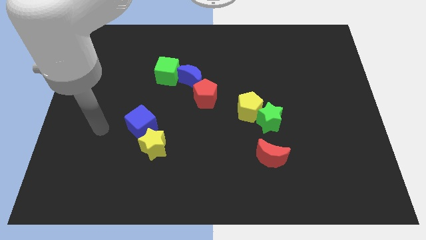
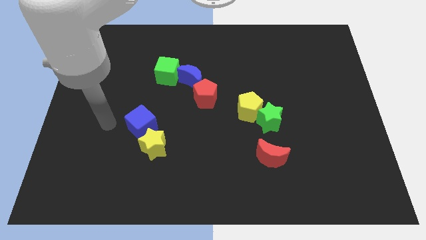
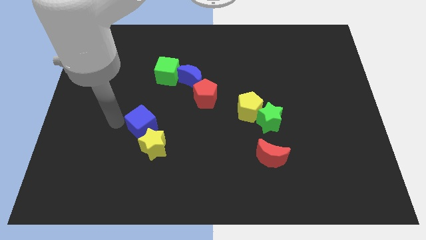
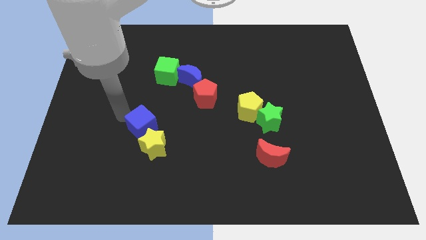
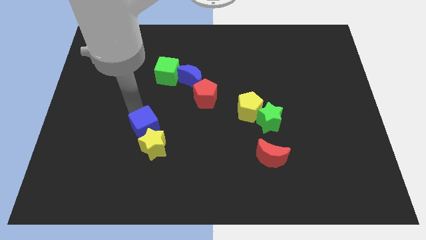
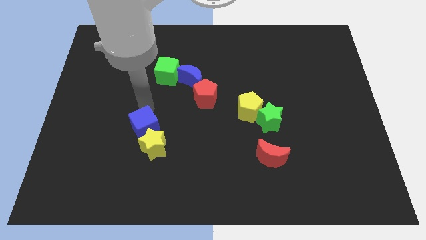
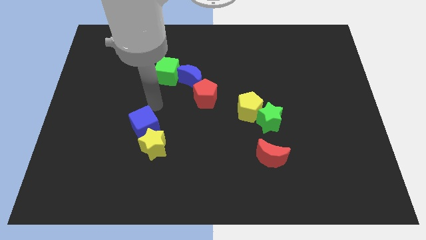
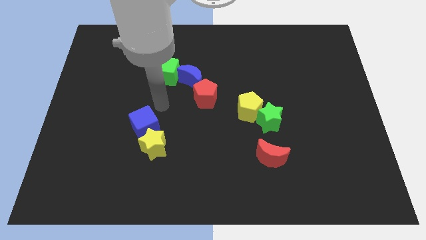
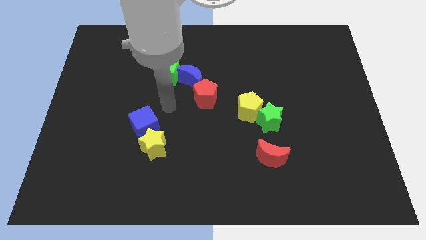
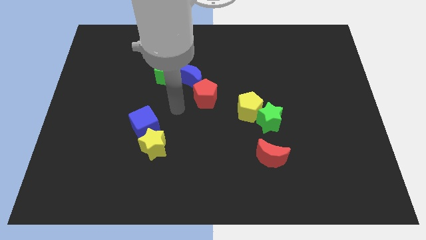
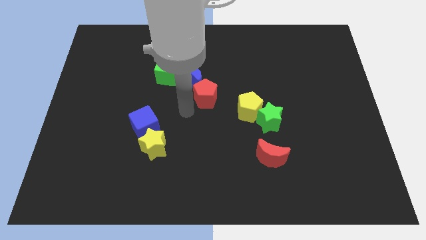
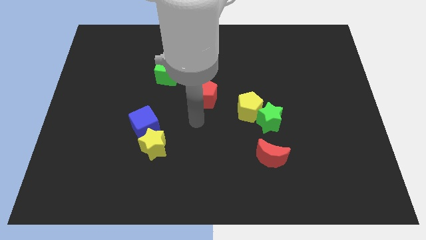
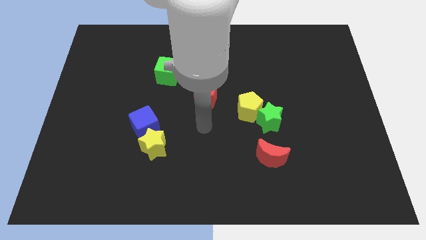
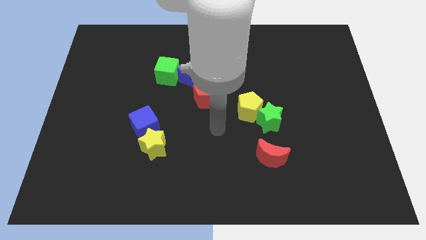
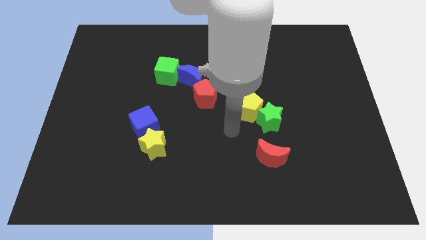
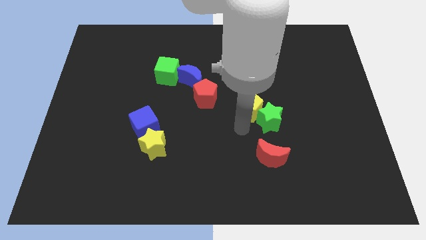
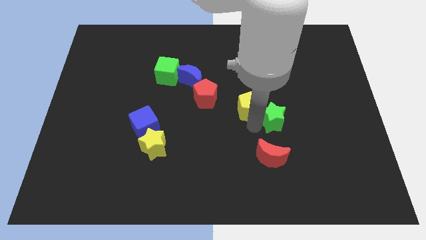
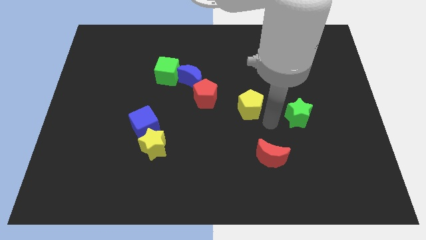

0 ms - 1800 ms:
pull the yellow pentagon apart from the green star

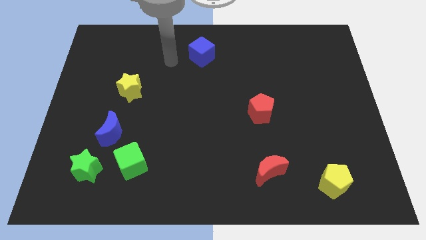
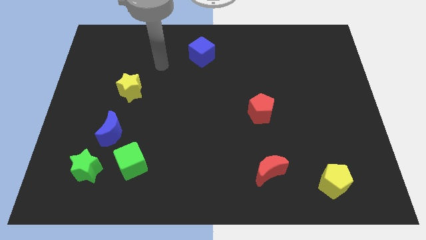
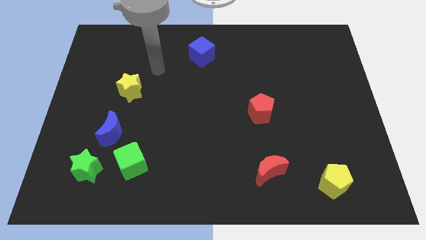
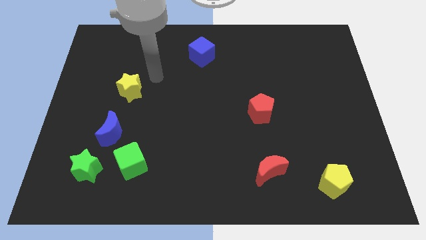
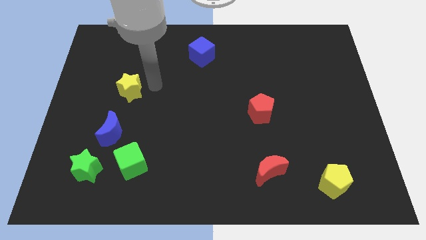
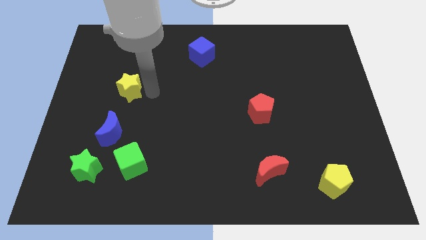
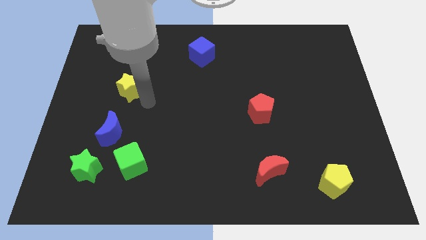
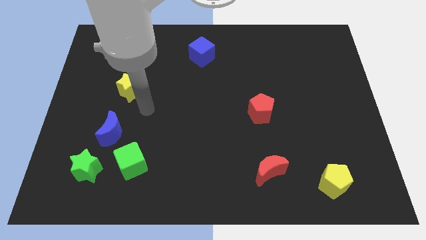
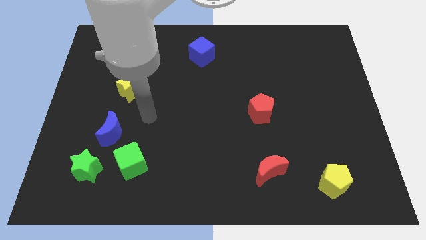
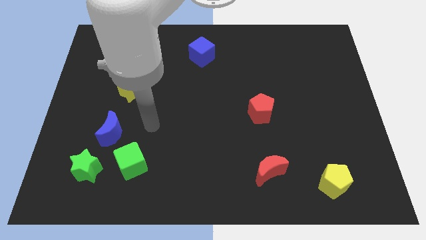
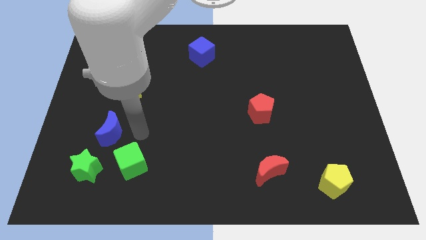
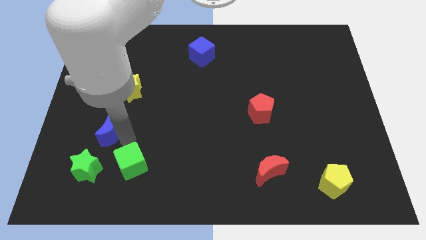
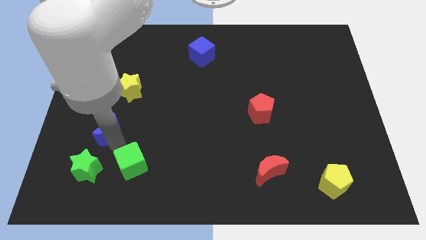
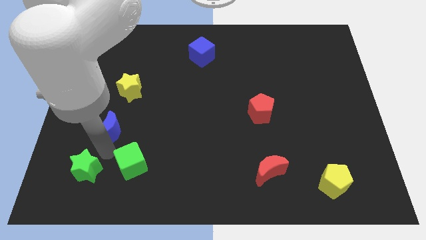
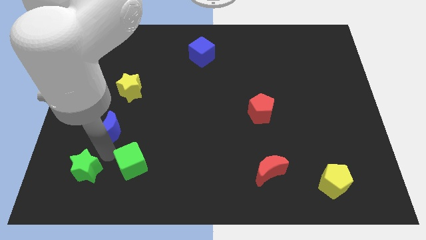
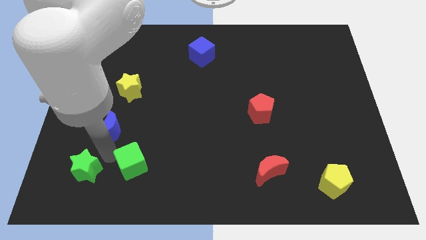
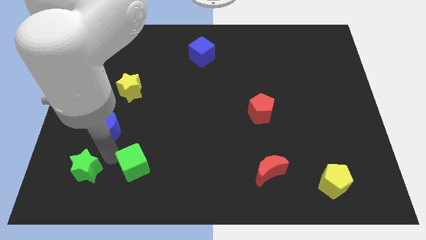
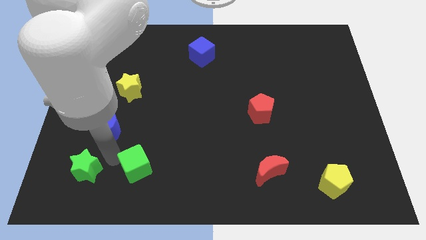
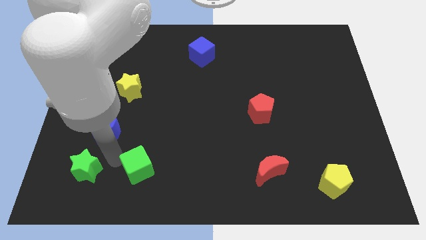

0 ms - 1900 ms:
separate the green cube from the green star and blue moon

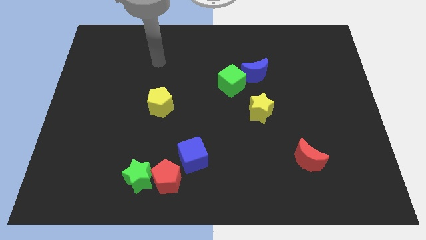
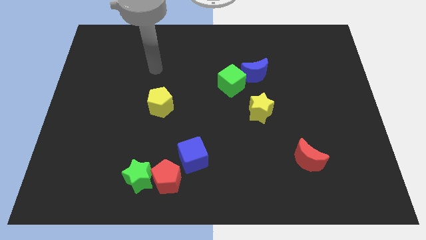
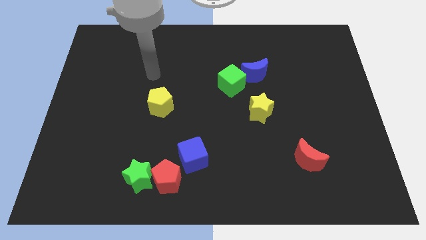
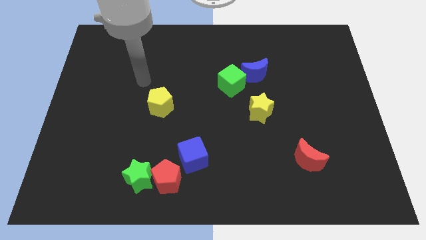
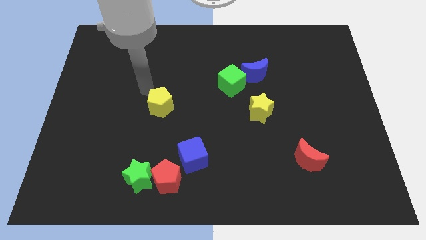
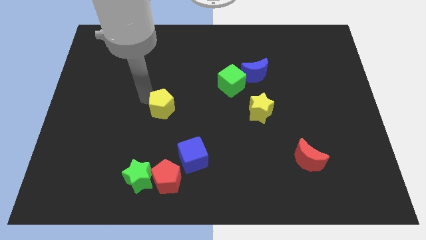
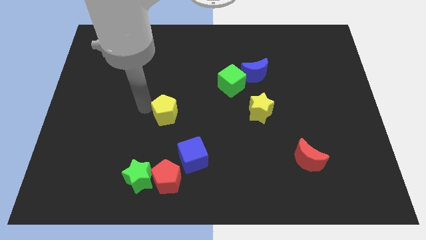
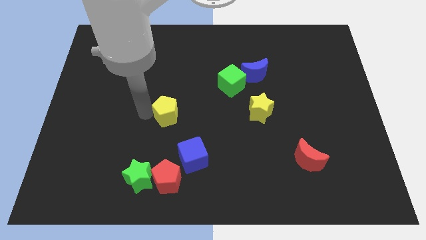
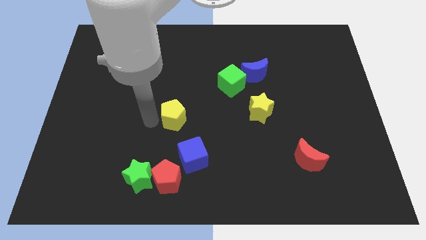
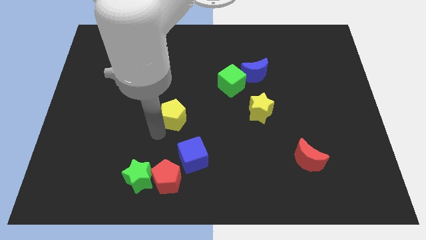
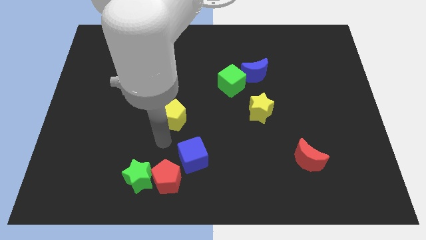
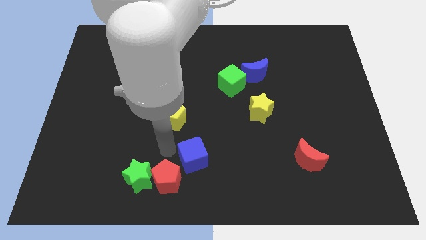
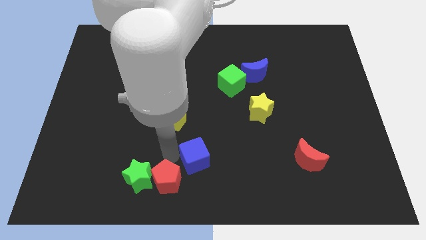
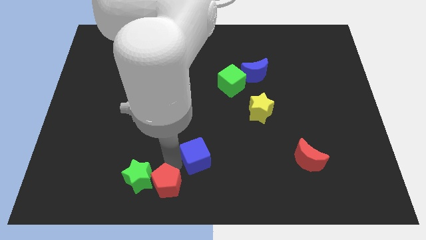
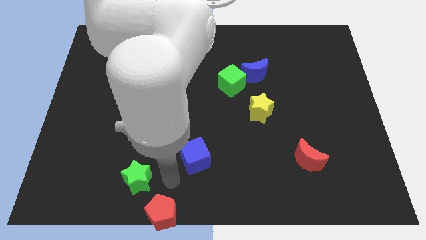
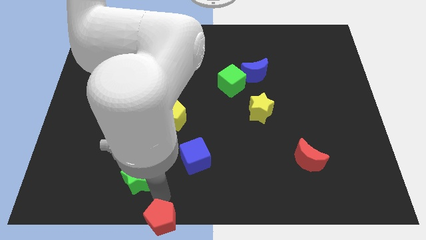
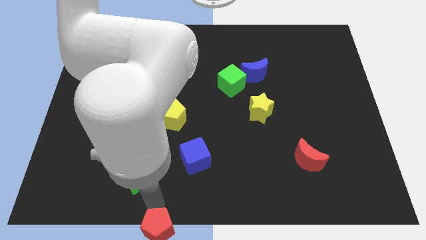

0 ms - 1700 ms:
pull the green star apart from the red pentagon

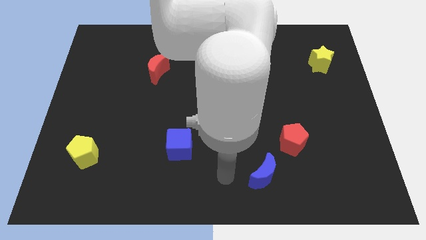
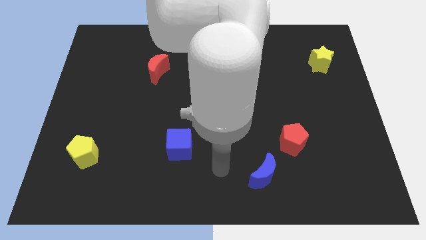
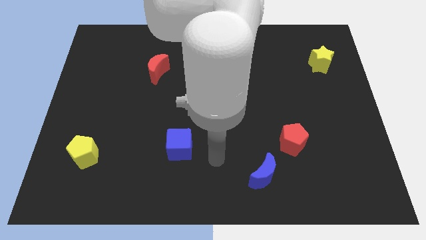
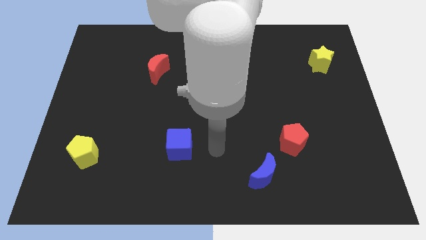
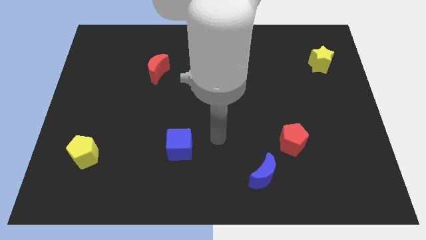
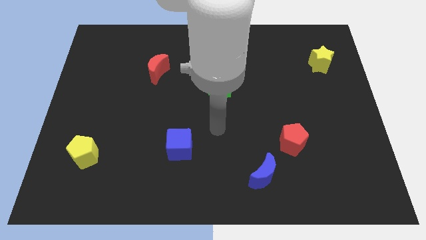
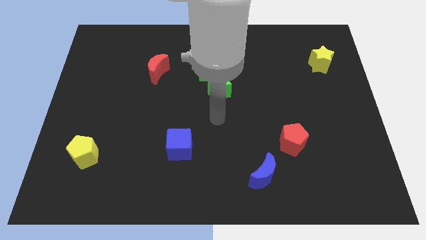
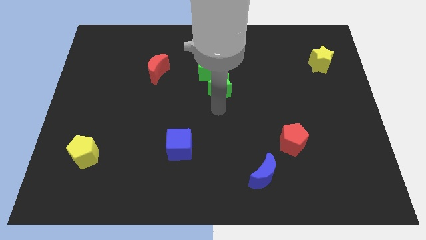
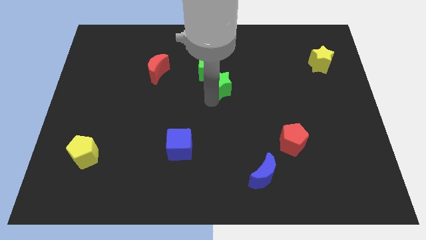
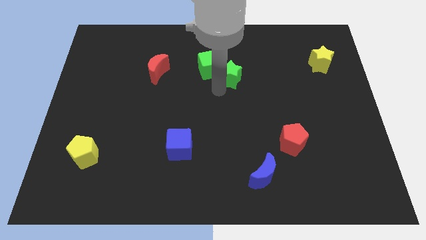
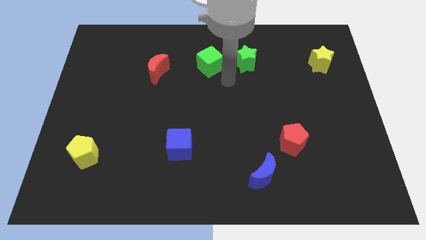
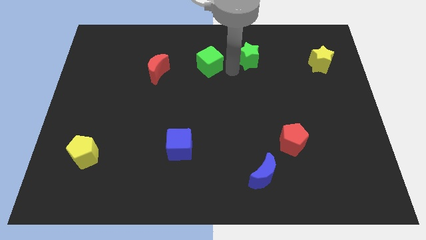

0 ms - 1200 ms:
separate the green cube from the green star

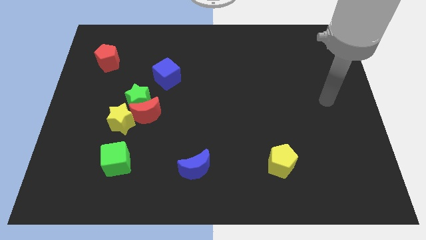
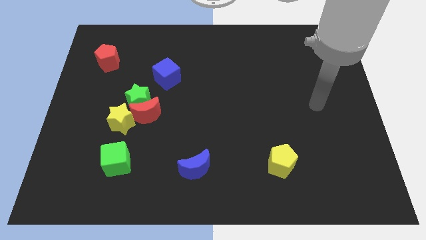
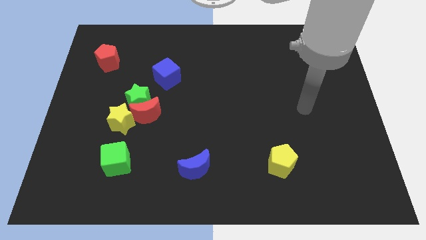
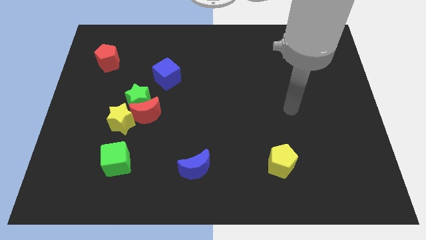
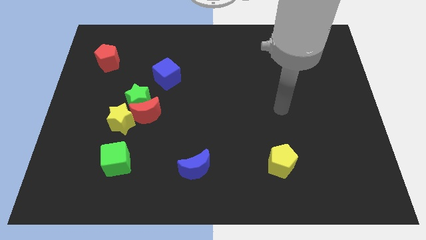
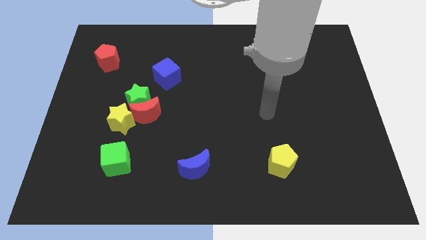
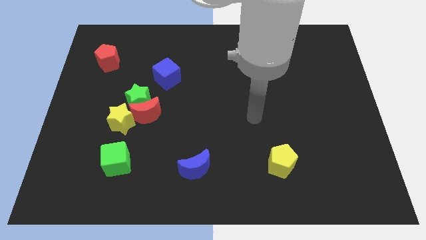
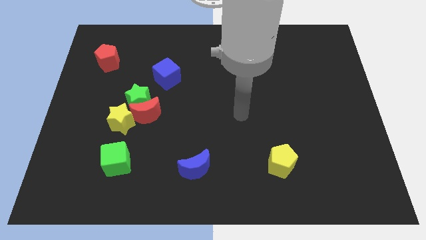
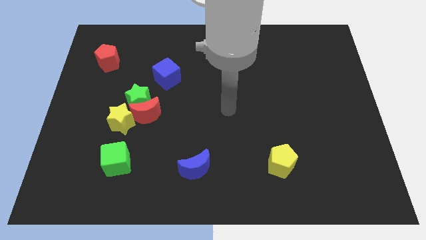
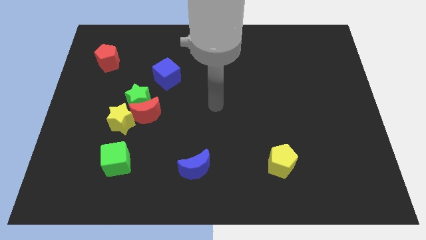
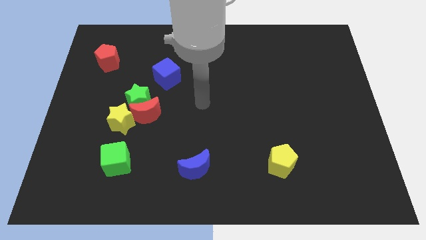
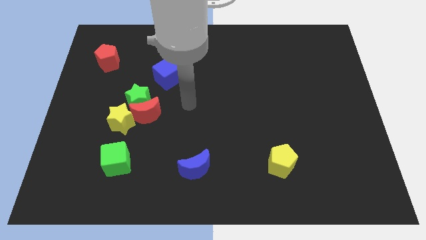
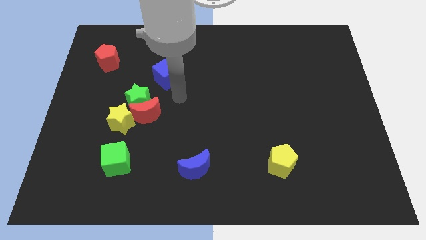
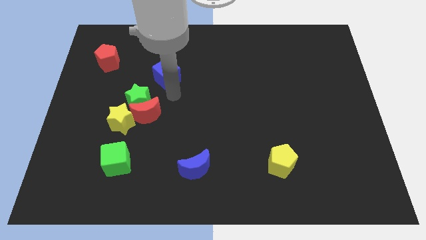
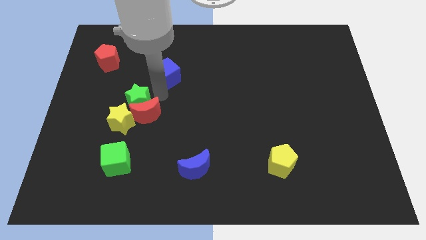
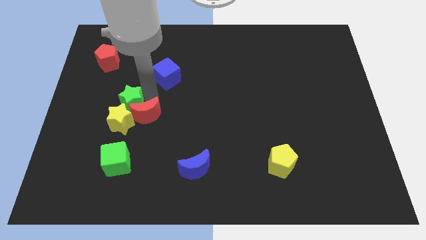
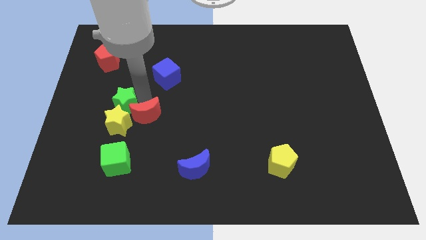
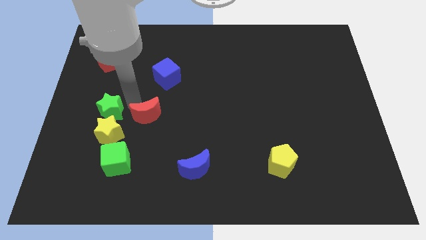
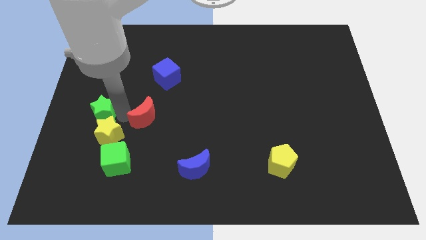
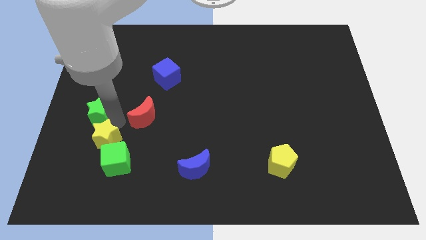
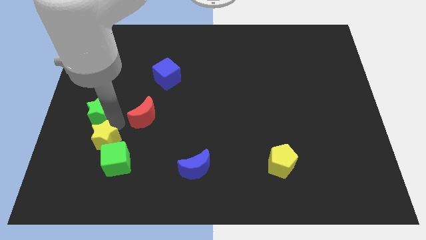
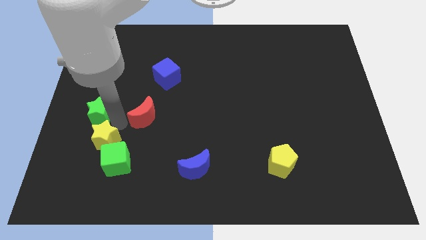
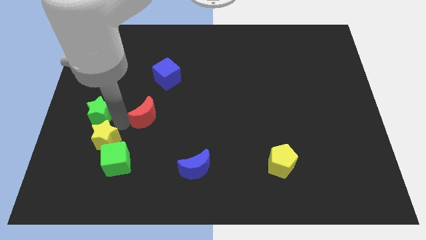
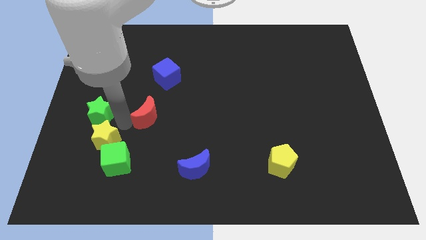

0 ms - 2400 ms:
pull the red moon apart from the green star and yellow star

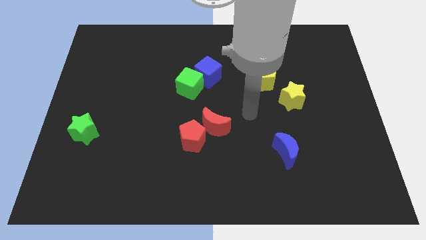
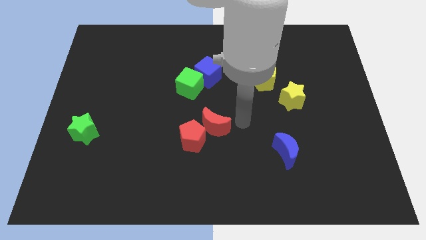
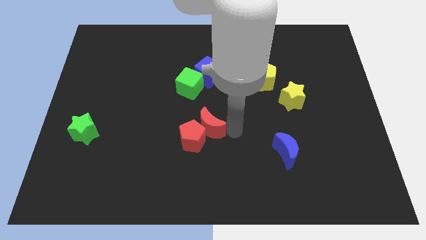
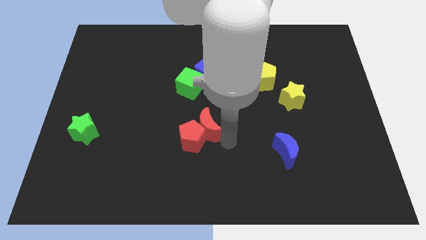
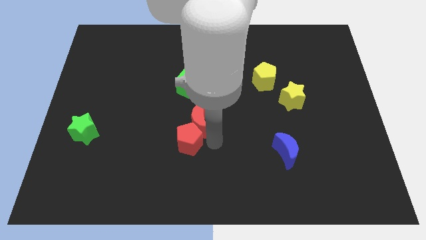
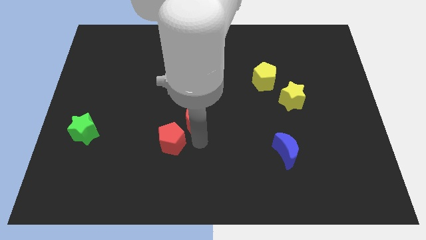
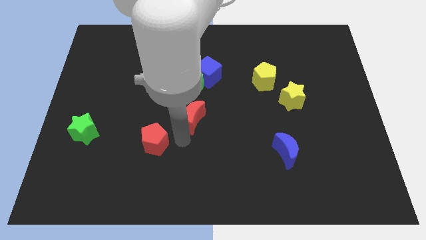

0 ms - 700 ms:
separate the red moon from the red pentagon
